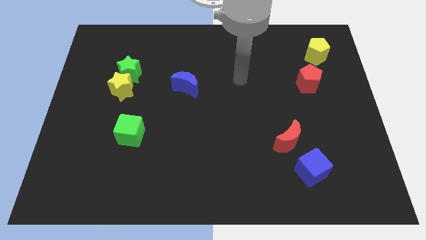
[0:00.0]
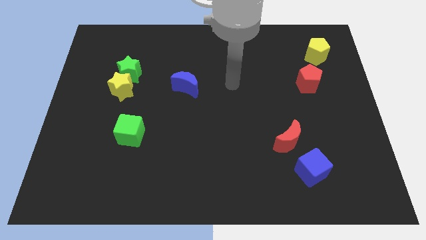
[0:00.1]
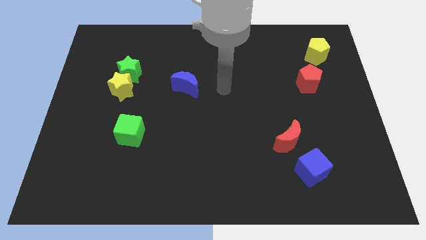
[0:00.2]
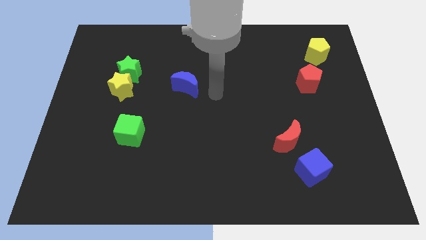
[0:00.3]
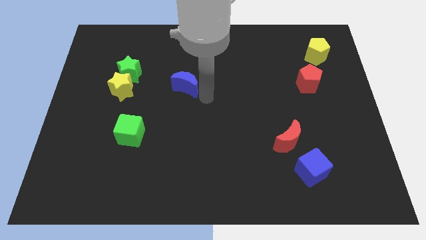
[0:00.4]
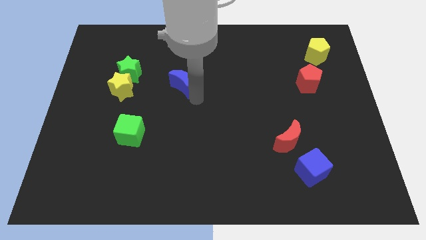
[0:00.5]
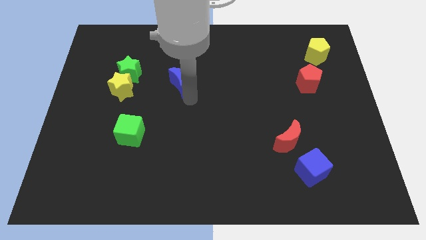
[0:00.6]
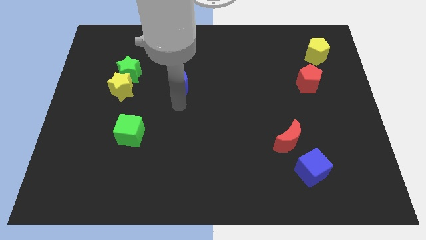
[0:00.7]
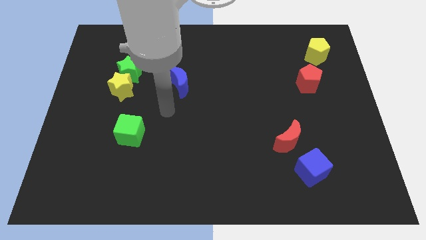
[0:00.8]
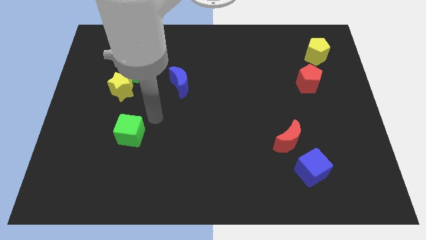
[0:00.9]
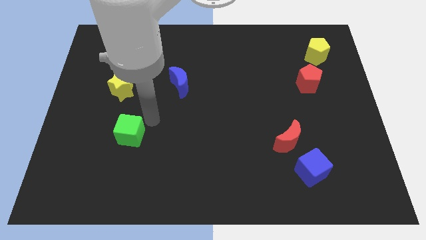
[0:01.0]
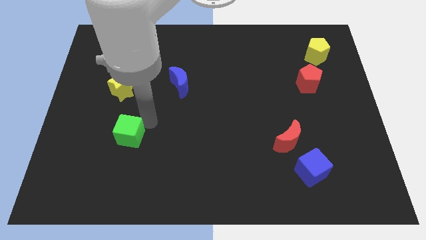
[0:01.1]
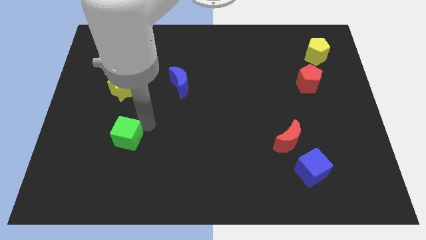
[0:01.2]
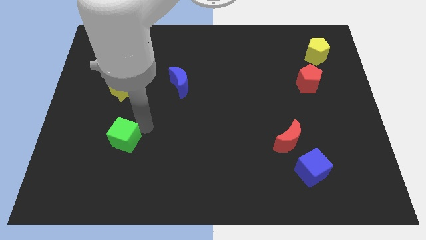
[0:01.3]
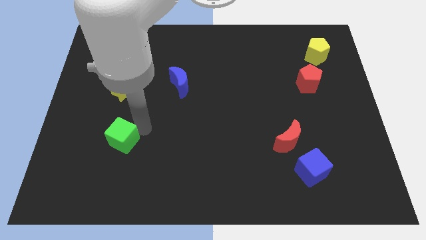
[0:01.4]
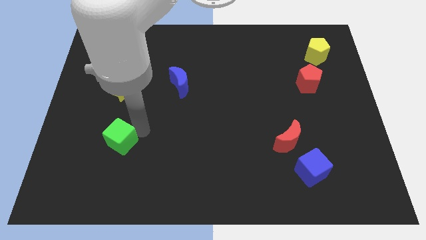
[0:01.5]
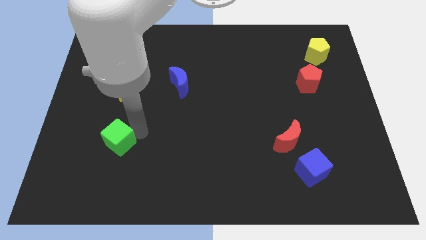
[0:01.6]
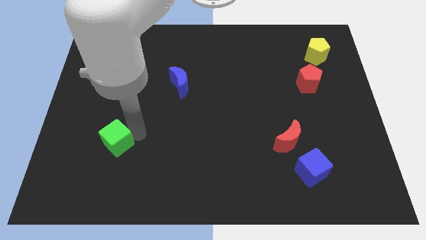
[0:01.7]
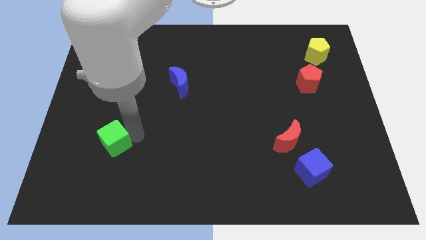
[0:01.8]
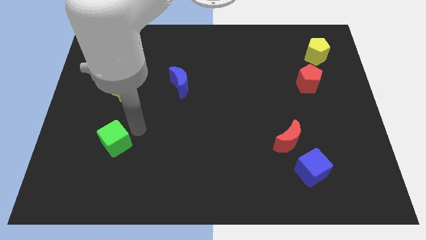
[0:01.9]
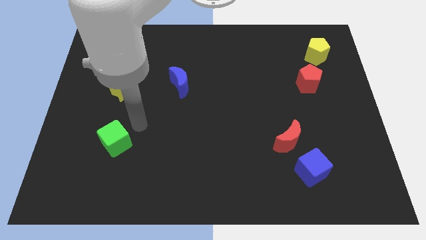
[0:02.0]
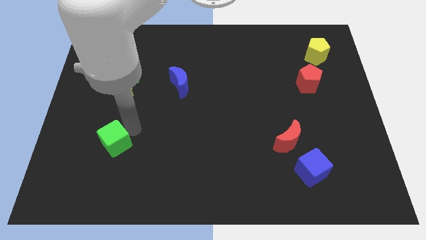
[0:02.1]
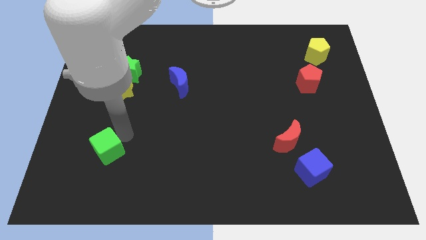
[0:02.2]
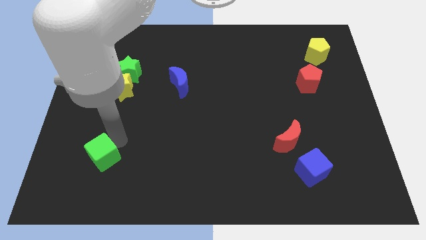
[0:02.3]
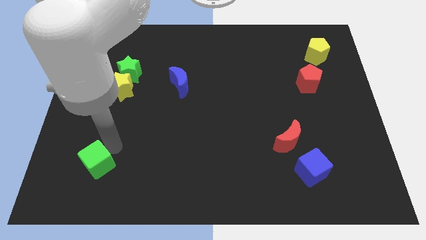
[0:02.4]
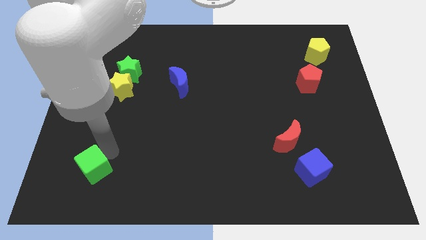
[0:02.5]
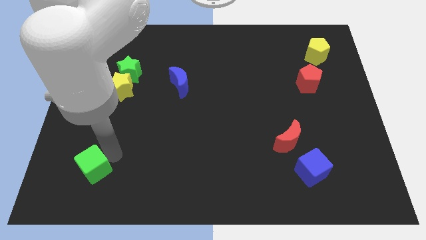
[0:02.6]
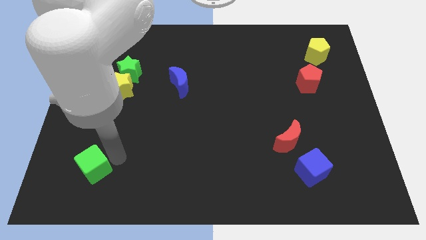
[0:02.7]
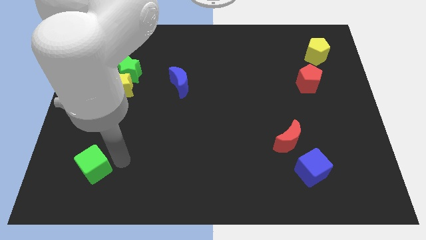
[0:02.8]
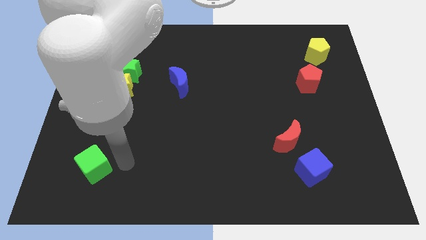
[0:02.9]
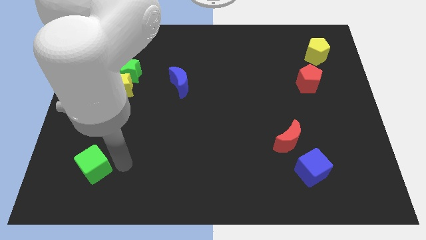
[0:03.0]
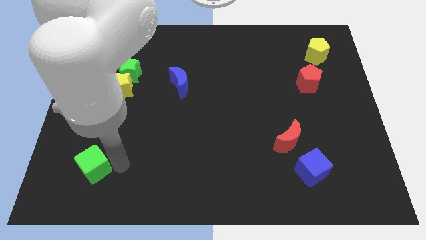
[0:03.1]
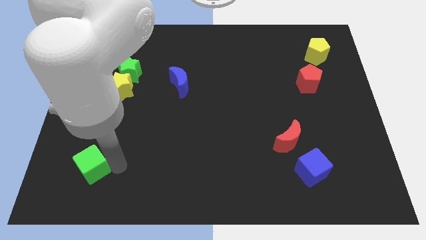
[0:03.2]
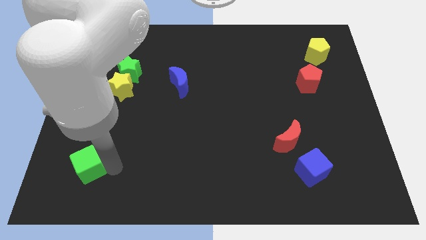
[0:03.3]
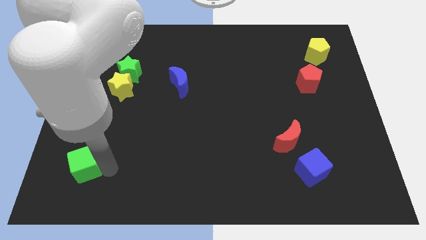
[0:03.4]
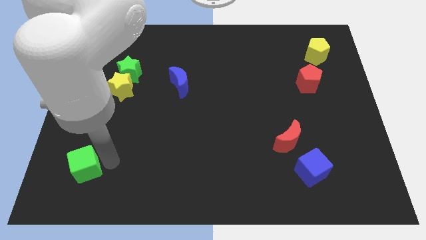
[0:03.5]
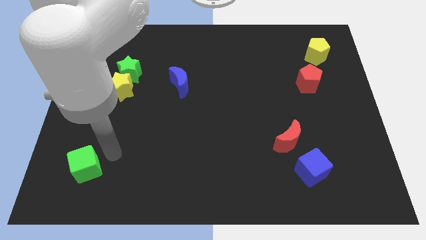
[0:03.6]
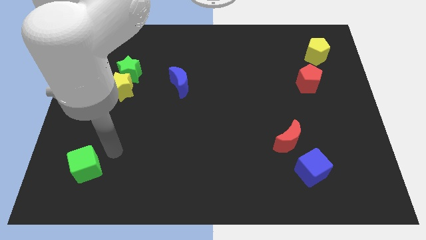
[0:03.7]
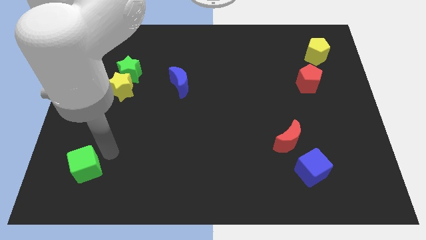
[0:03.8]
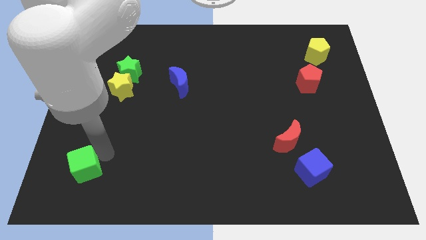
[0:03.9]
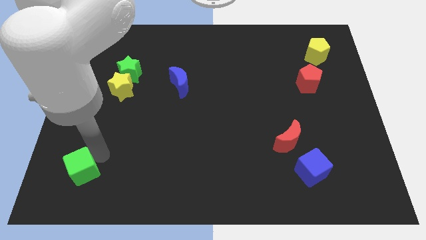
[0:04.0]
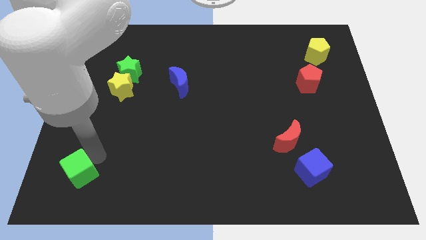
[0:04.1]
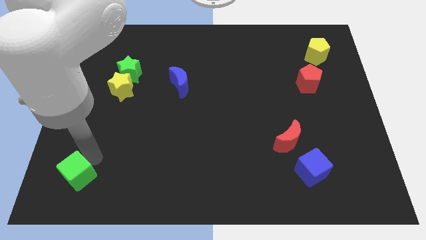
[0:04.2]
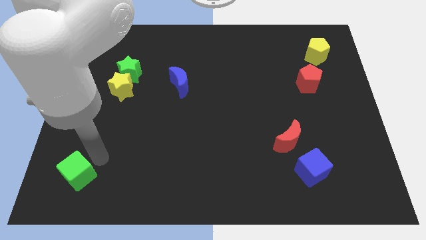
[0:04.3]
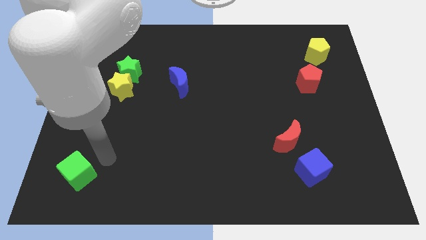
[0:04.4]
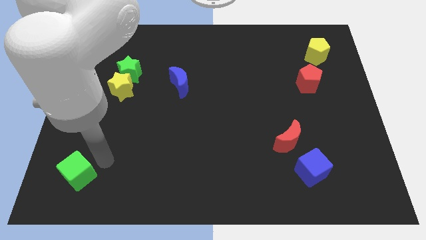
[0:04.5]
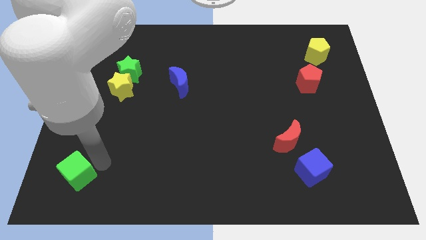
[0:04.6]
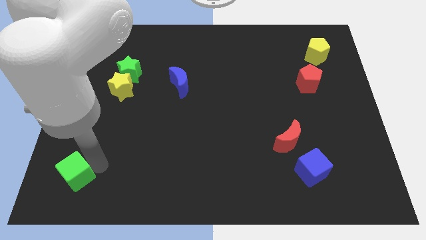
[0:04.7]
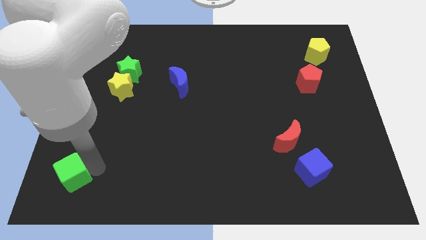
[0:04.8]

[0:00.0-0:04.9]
push the green cube to the bottom left

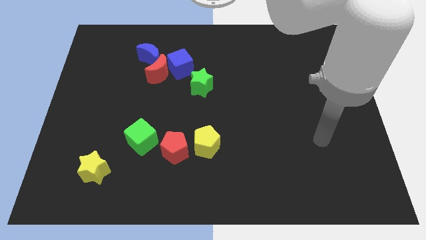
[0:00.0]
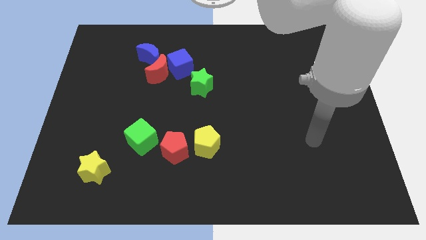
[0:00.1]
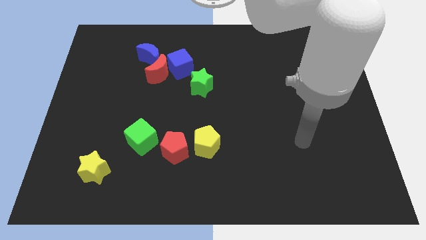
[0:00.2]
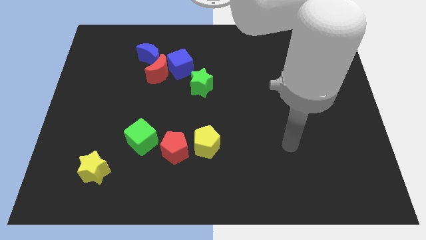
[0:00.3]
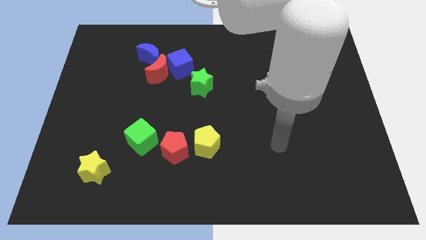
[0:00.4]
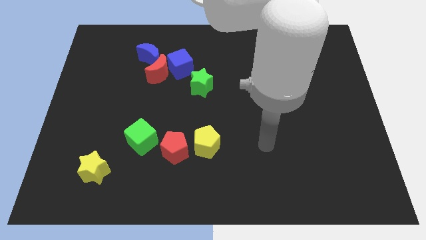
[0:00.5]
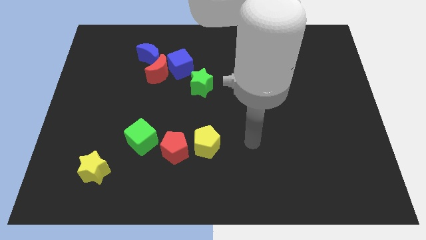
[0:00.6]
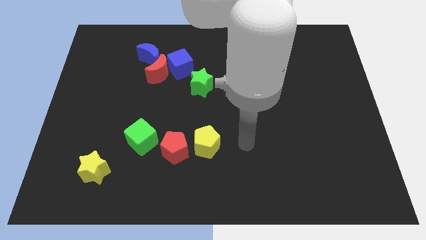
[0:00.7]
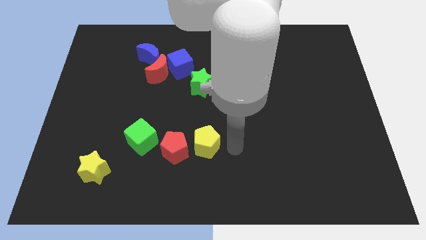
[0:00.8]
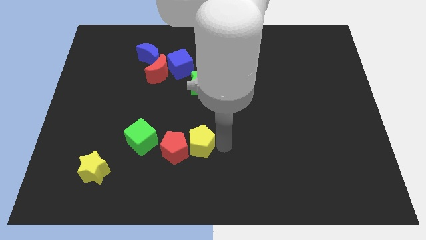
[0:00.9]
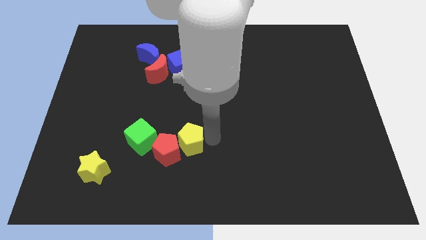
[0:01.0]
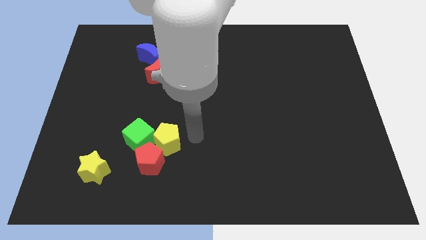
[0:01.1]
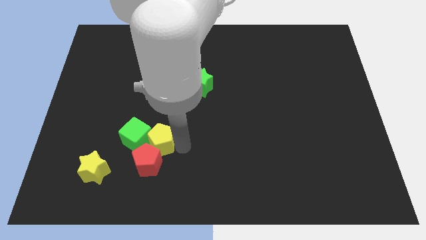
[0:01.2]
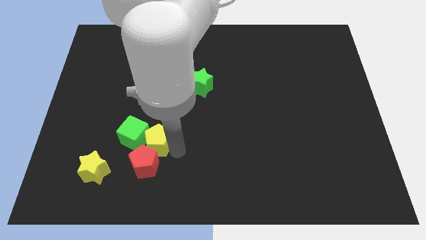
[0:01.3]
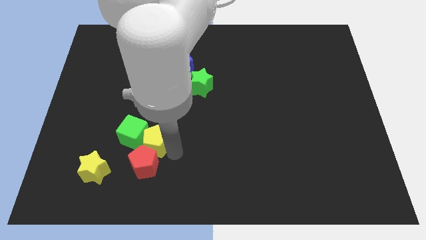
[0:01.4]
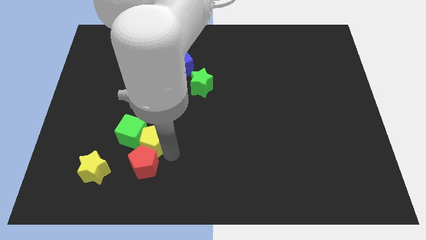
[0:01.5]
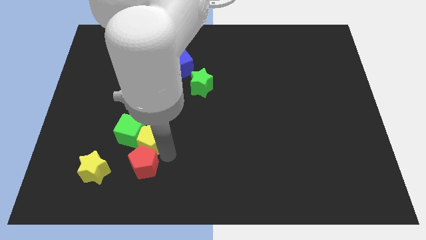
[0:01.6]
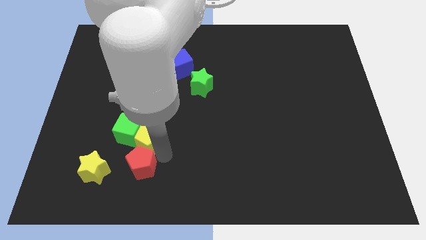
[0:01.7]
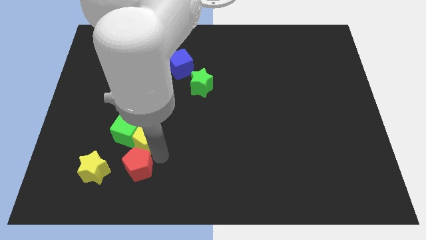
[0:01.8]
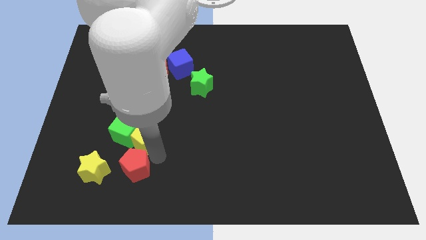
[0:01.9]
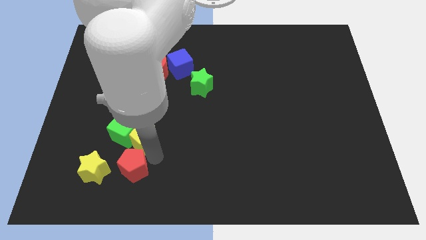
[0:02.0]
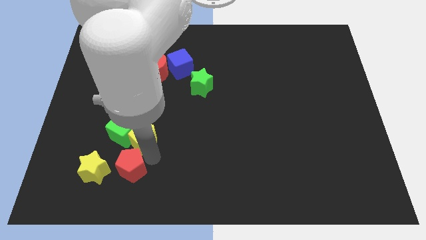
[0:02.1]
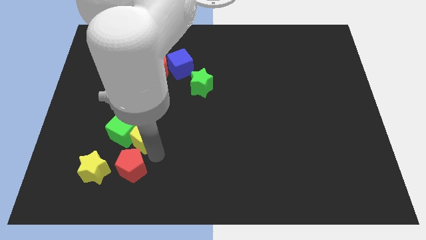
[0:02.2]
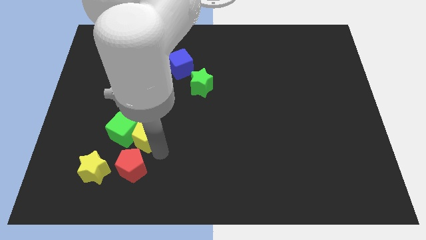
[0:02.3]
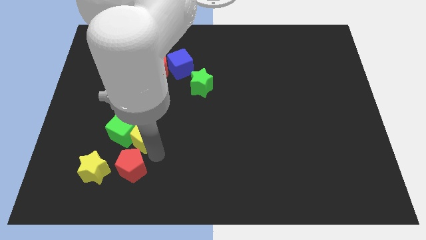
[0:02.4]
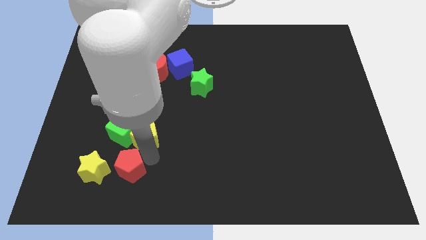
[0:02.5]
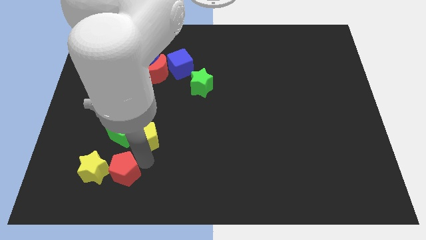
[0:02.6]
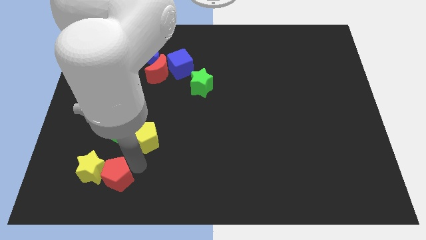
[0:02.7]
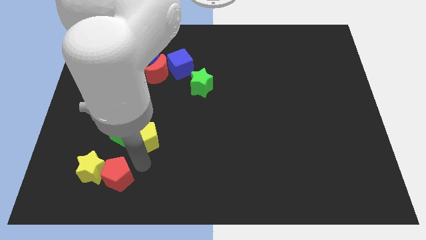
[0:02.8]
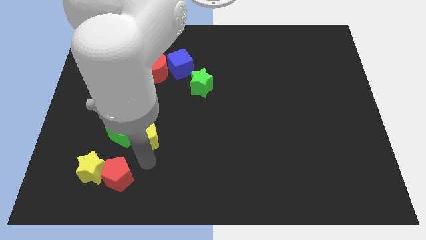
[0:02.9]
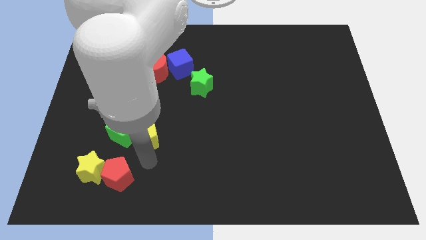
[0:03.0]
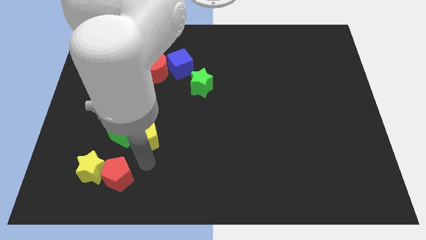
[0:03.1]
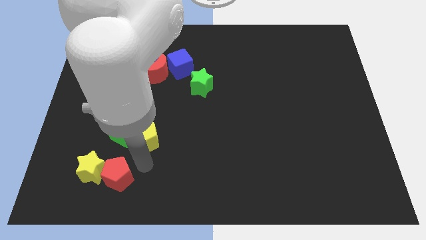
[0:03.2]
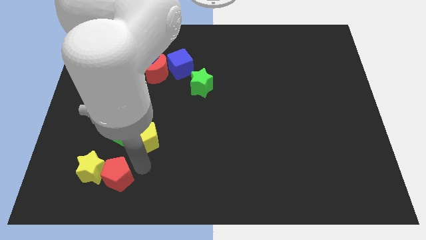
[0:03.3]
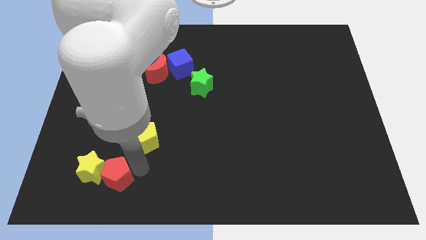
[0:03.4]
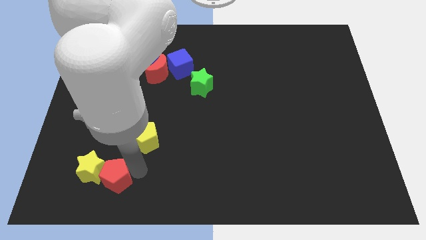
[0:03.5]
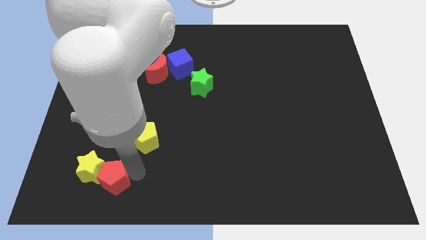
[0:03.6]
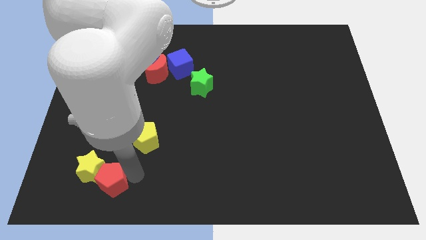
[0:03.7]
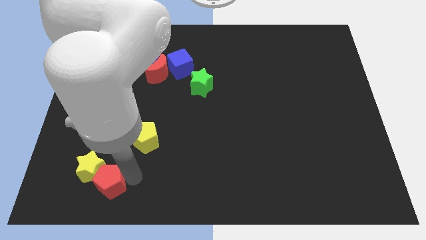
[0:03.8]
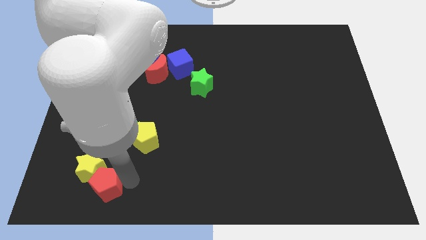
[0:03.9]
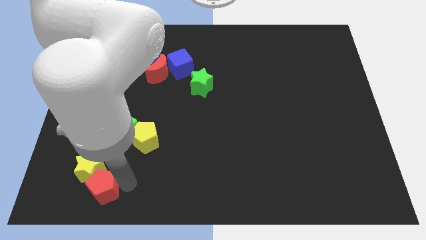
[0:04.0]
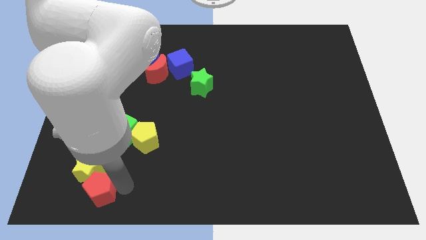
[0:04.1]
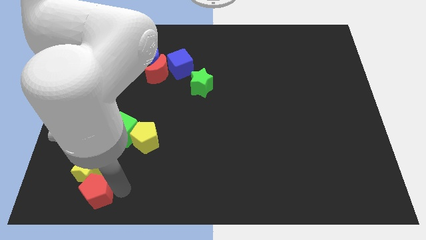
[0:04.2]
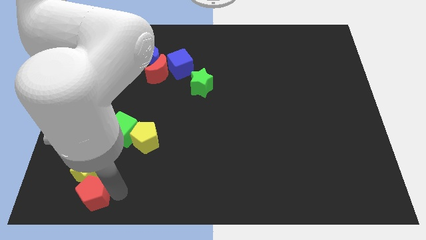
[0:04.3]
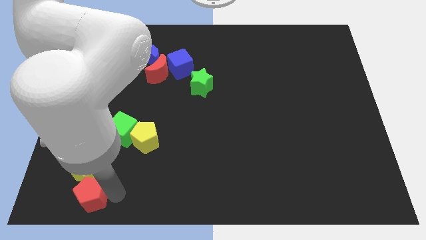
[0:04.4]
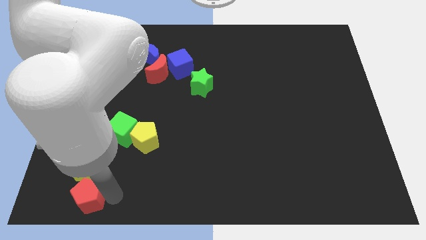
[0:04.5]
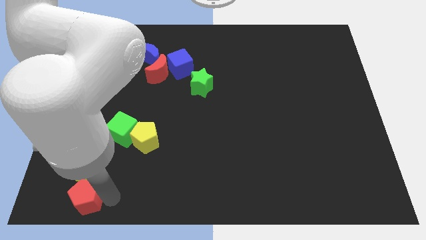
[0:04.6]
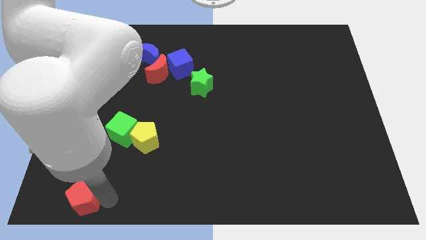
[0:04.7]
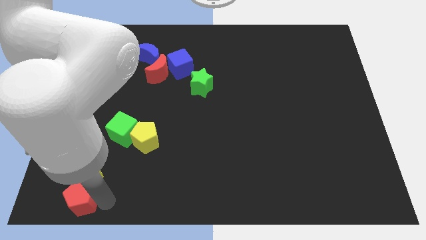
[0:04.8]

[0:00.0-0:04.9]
move the red pentagon to the bottom left
